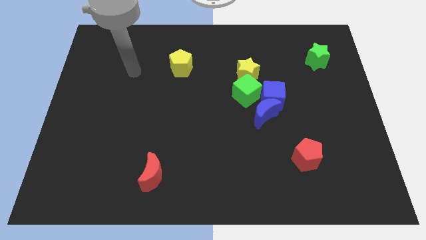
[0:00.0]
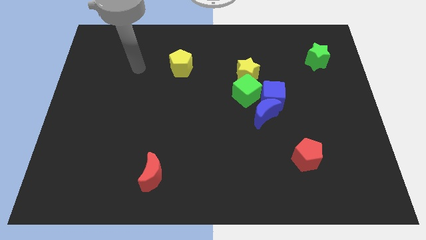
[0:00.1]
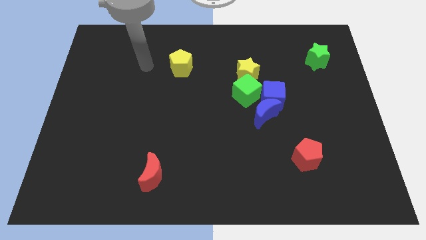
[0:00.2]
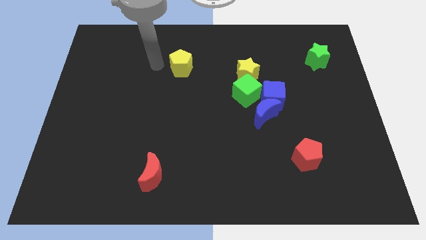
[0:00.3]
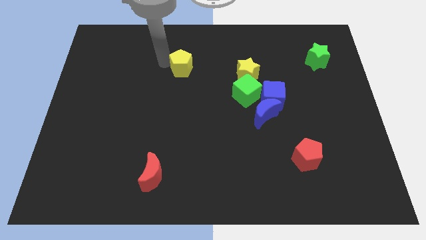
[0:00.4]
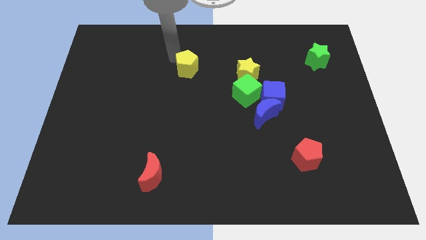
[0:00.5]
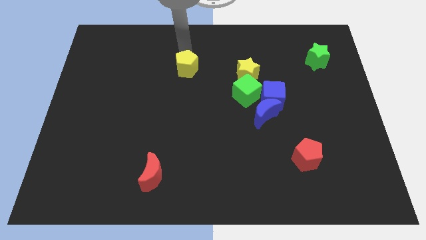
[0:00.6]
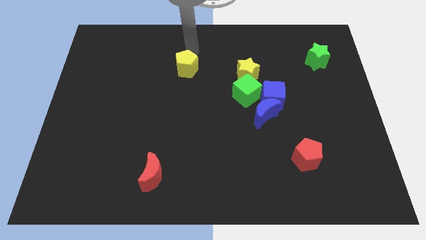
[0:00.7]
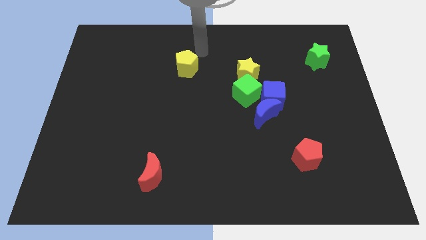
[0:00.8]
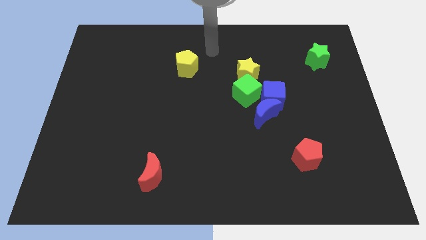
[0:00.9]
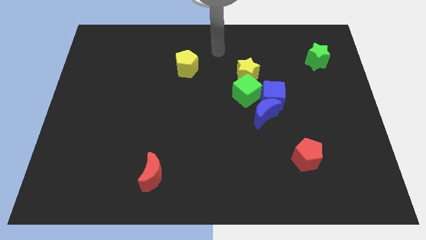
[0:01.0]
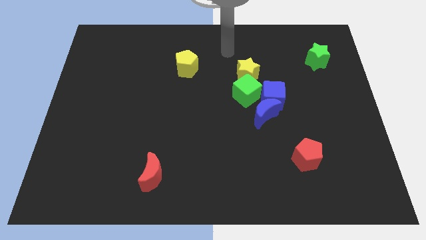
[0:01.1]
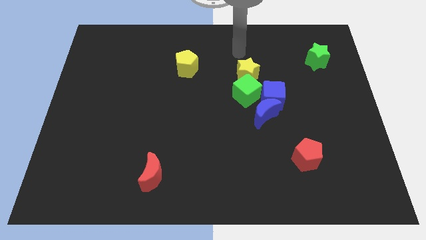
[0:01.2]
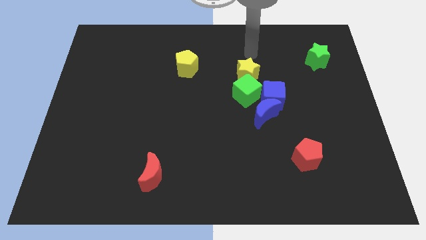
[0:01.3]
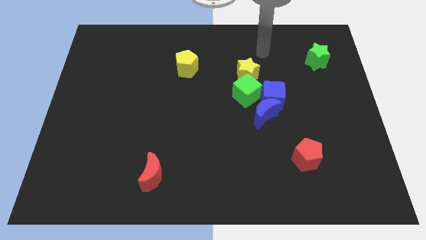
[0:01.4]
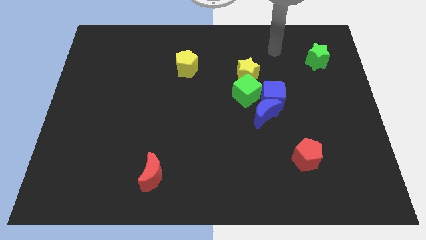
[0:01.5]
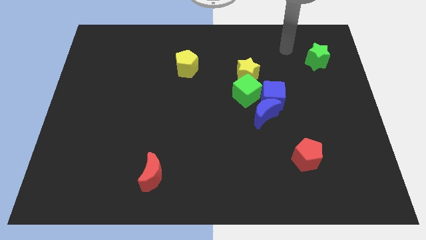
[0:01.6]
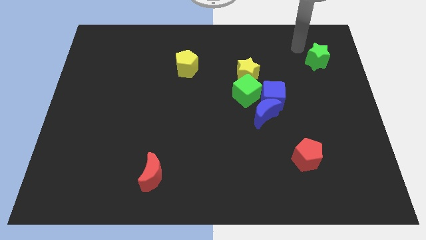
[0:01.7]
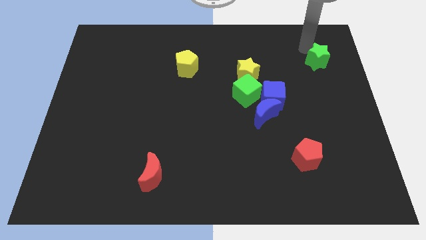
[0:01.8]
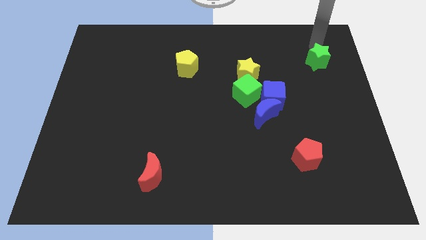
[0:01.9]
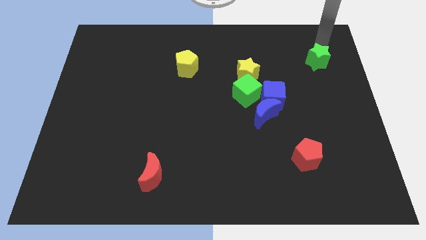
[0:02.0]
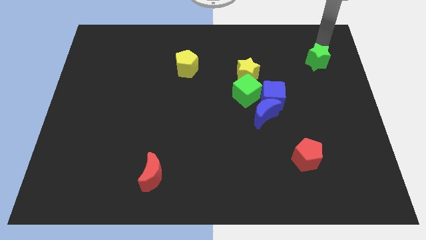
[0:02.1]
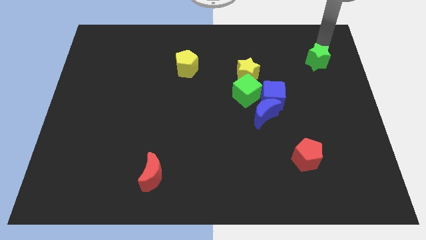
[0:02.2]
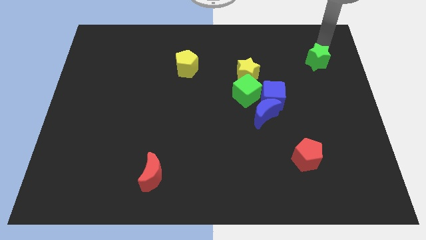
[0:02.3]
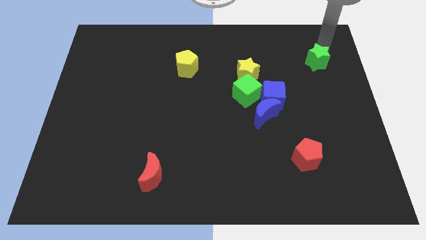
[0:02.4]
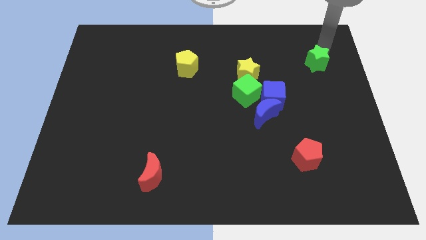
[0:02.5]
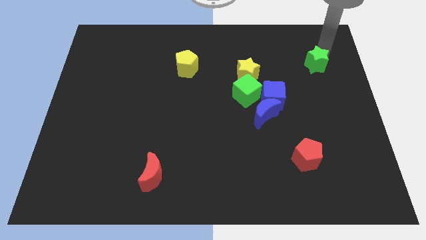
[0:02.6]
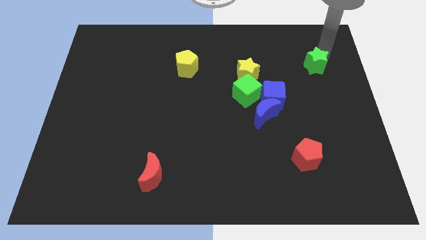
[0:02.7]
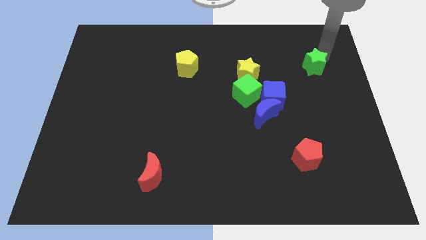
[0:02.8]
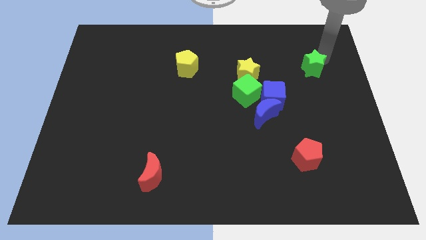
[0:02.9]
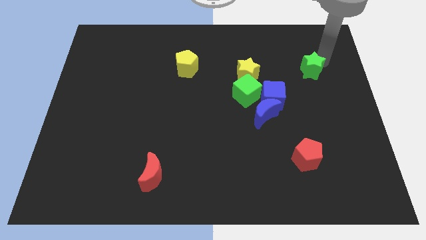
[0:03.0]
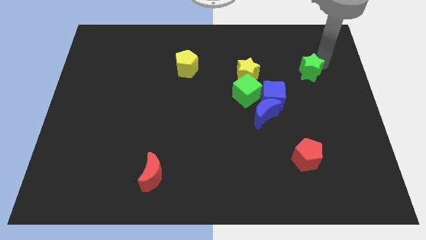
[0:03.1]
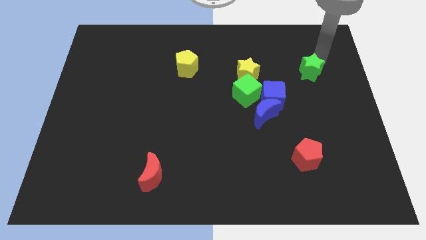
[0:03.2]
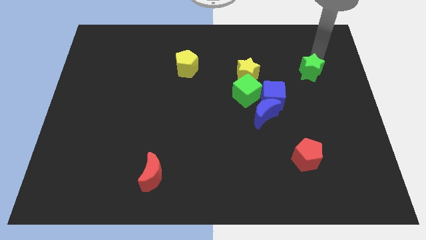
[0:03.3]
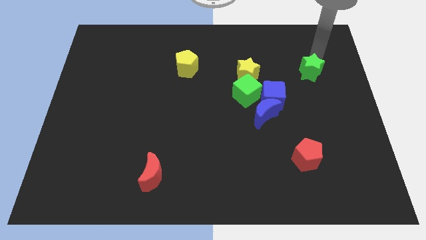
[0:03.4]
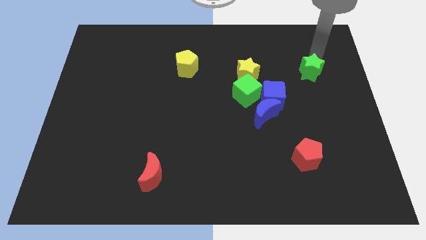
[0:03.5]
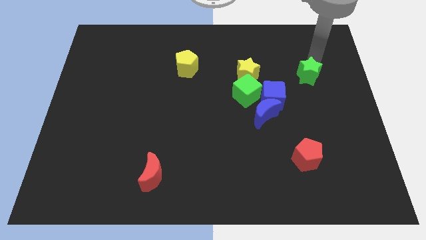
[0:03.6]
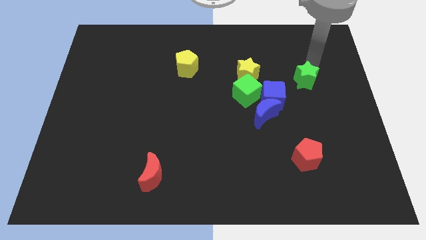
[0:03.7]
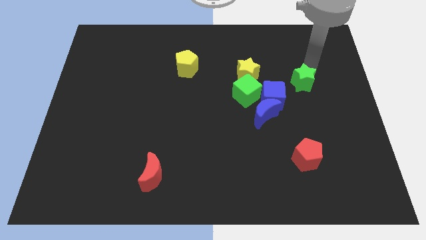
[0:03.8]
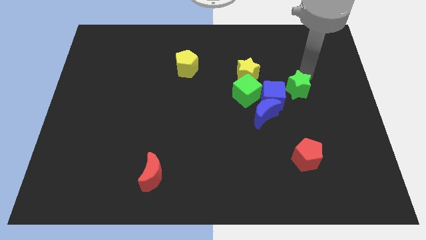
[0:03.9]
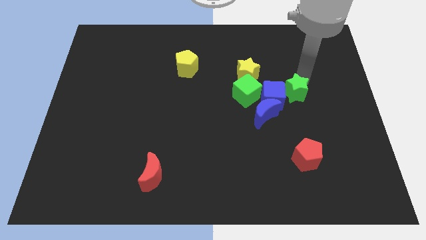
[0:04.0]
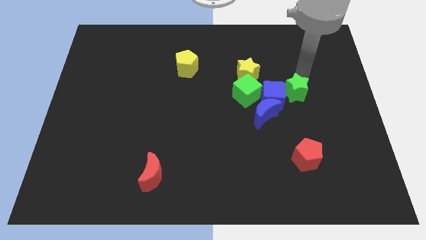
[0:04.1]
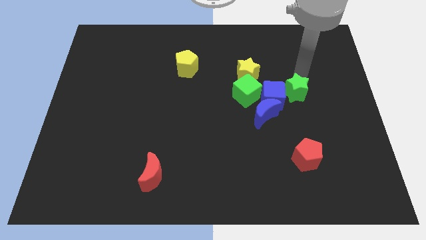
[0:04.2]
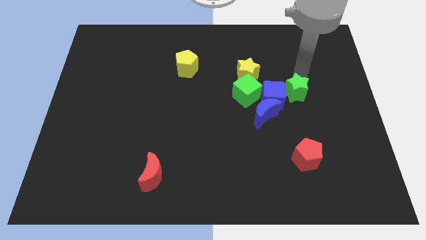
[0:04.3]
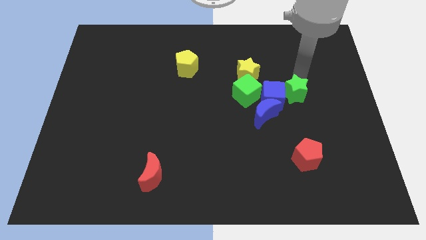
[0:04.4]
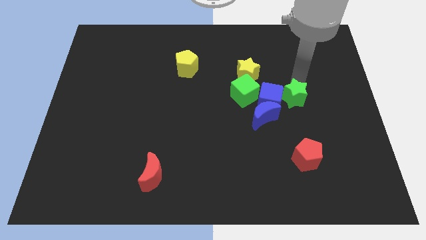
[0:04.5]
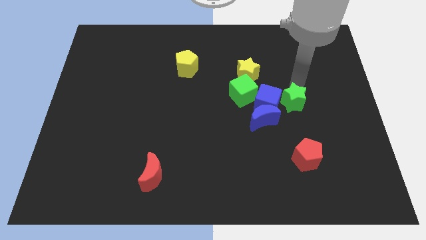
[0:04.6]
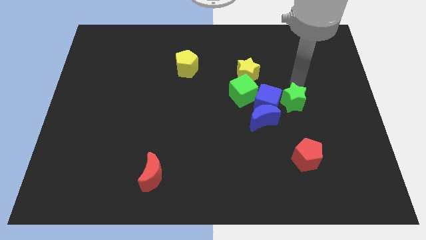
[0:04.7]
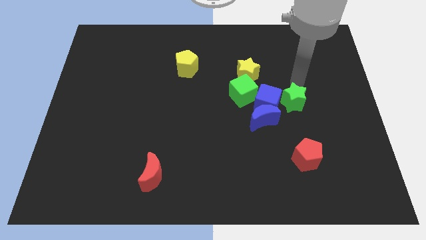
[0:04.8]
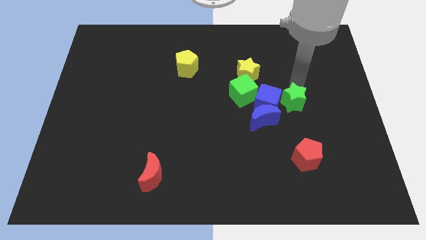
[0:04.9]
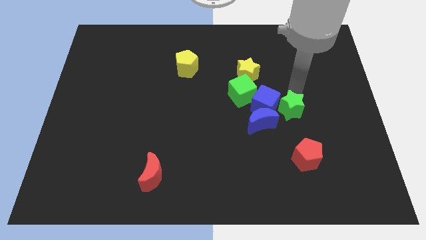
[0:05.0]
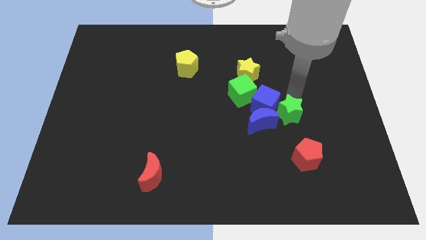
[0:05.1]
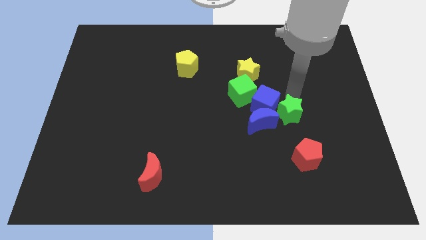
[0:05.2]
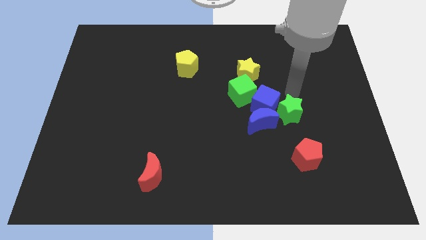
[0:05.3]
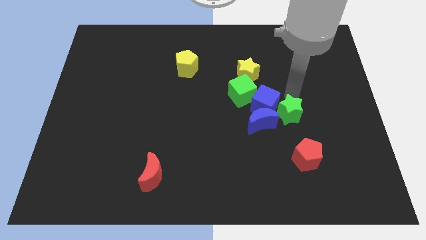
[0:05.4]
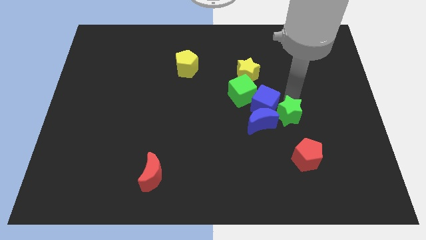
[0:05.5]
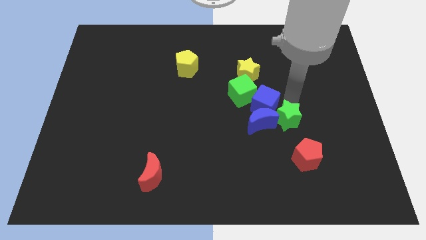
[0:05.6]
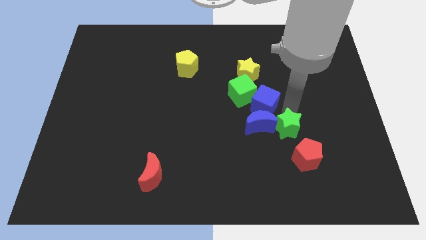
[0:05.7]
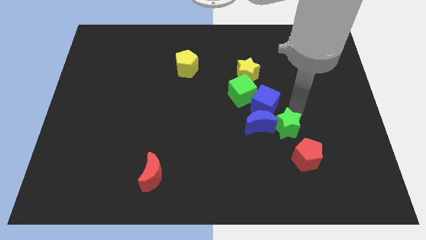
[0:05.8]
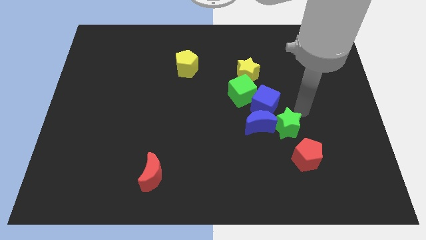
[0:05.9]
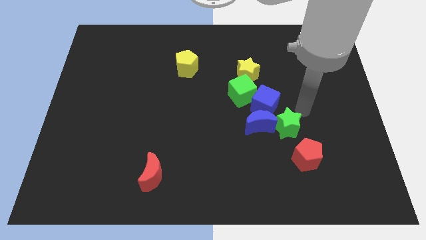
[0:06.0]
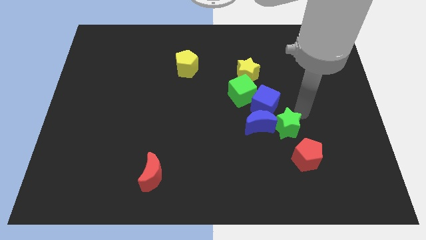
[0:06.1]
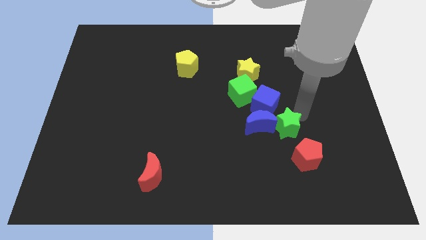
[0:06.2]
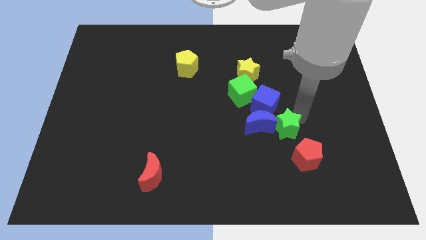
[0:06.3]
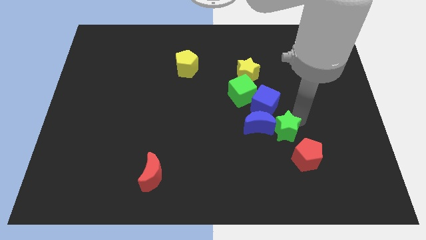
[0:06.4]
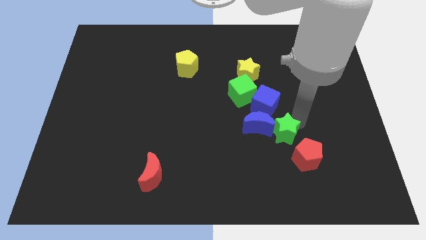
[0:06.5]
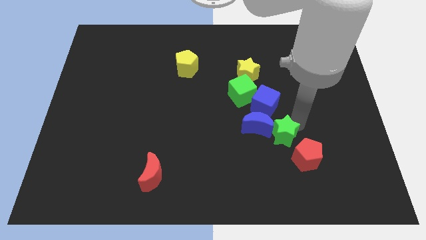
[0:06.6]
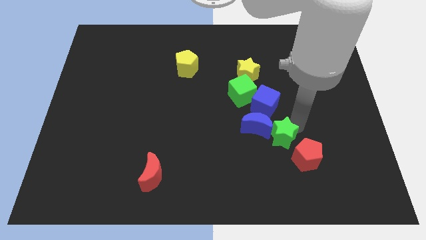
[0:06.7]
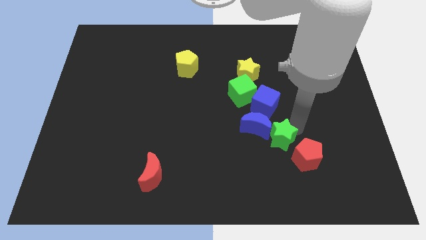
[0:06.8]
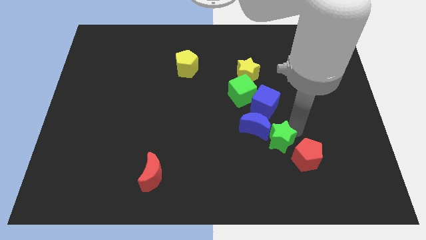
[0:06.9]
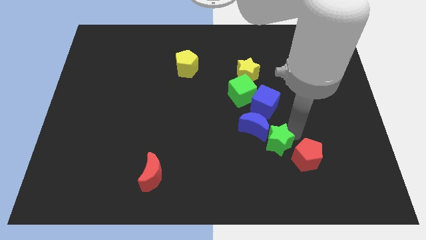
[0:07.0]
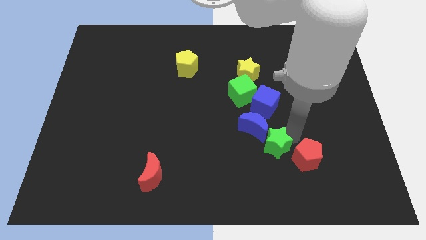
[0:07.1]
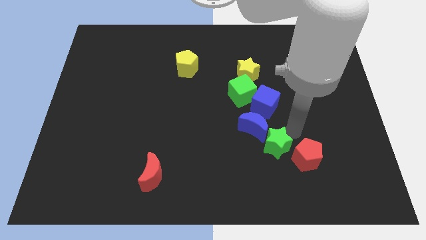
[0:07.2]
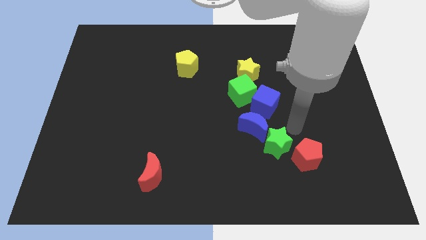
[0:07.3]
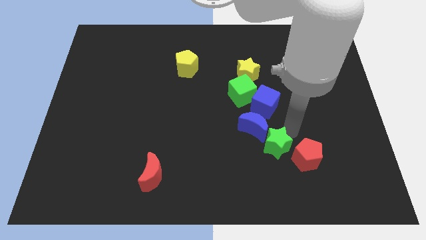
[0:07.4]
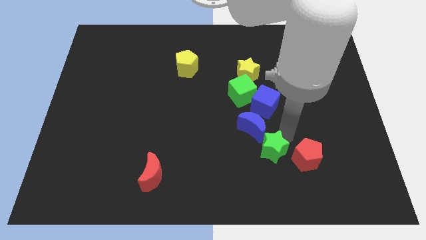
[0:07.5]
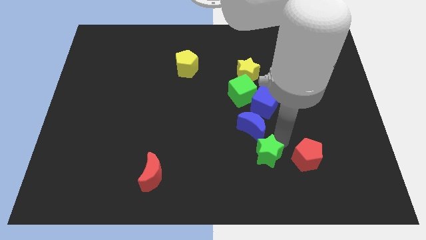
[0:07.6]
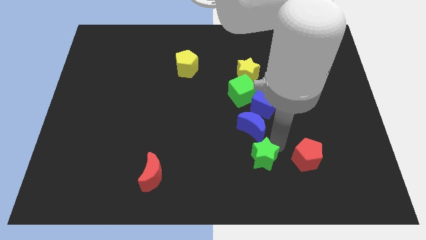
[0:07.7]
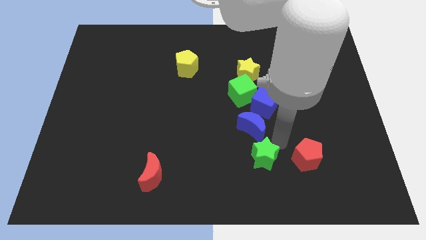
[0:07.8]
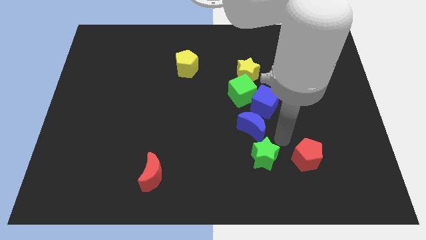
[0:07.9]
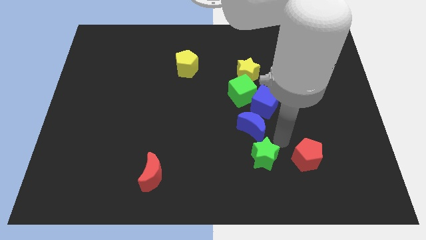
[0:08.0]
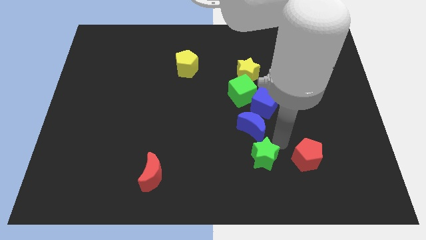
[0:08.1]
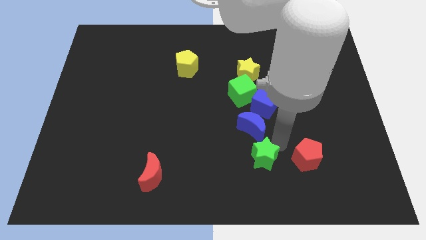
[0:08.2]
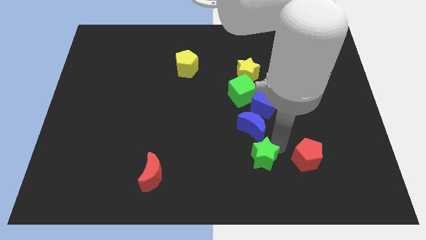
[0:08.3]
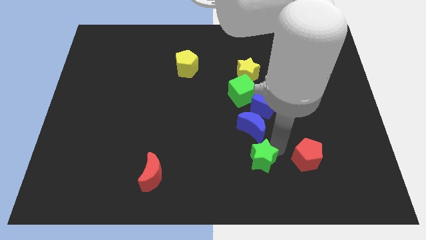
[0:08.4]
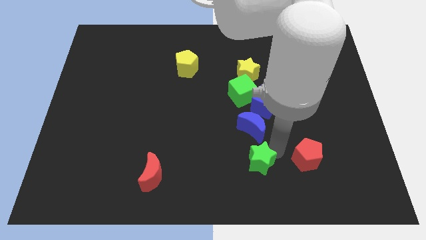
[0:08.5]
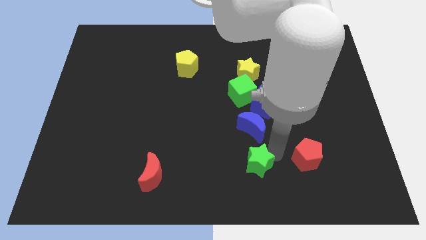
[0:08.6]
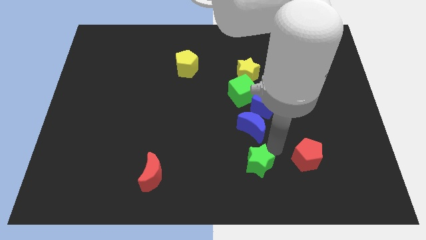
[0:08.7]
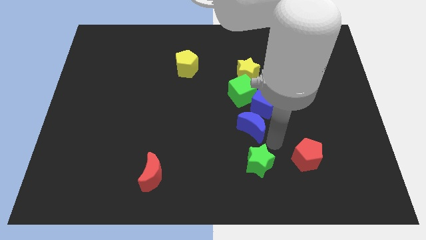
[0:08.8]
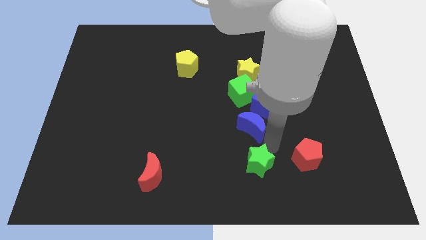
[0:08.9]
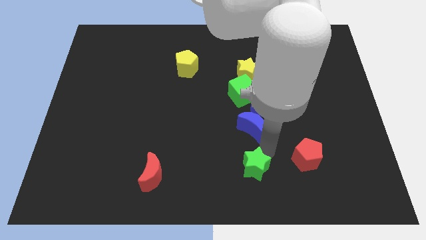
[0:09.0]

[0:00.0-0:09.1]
move the green star to the bottom side
